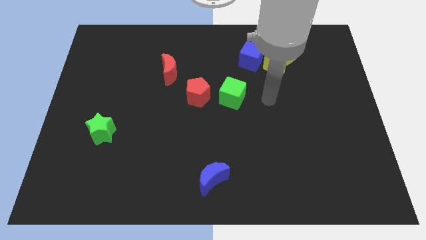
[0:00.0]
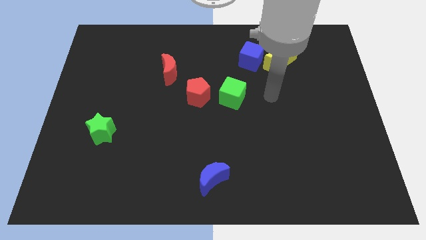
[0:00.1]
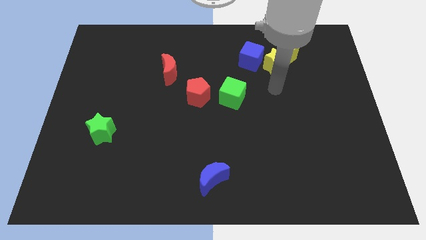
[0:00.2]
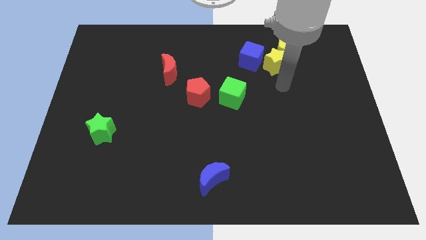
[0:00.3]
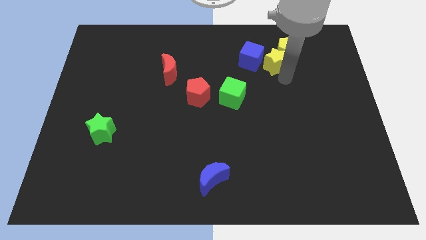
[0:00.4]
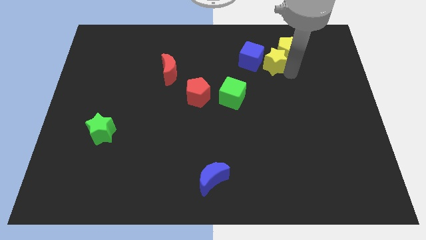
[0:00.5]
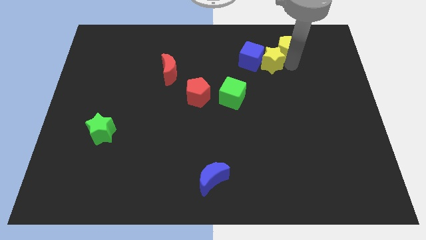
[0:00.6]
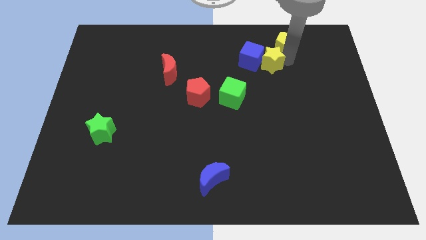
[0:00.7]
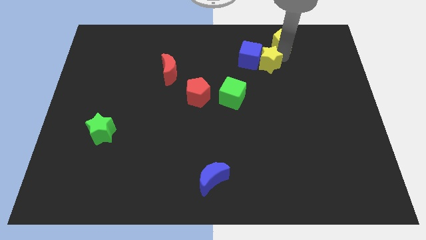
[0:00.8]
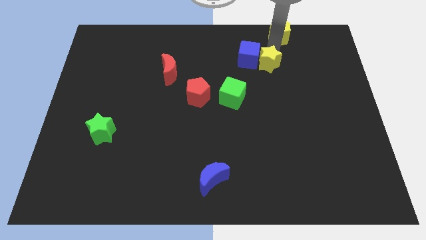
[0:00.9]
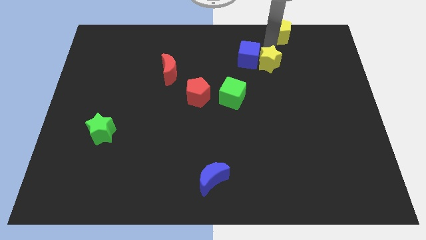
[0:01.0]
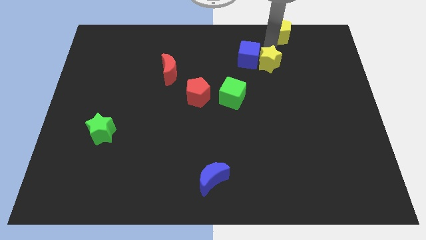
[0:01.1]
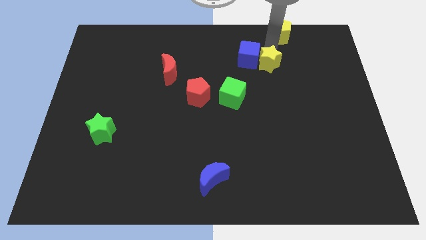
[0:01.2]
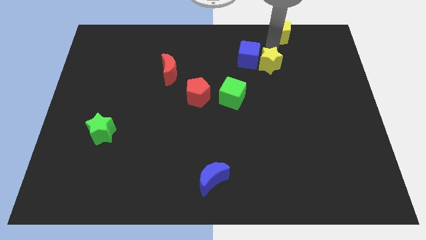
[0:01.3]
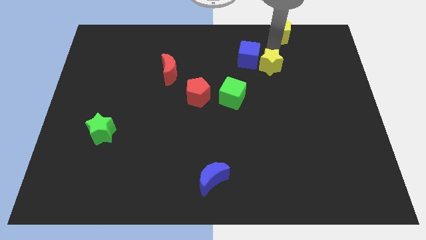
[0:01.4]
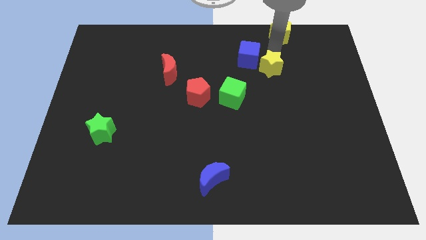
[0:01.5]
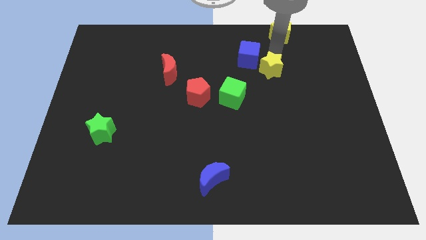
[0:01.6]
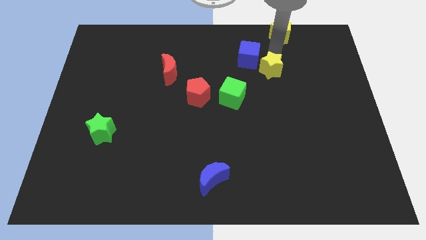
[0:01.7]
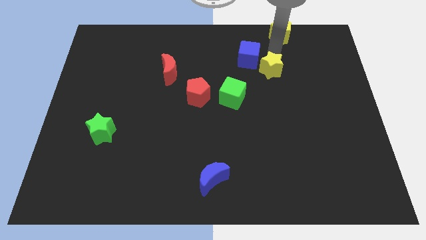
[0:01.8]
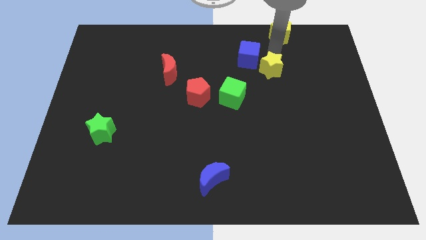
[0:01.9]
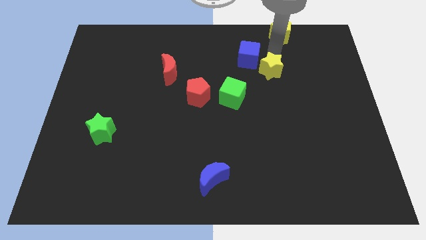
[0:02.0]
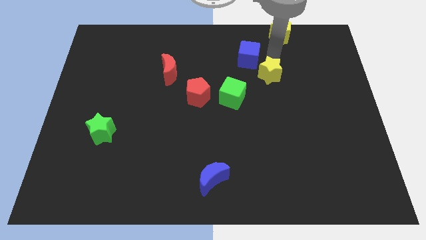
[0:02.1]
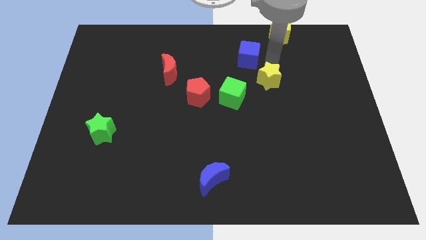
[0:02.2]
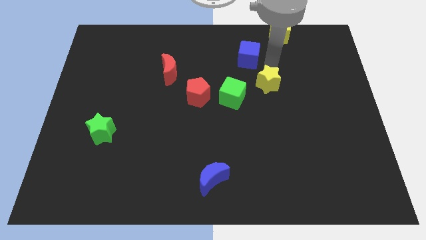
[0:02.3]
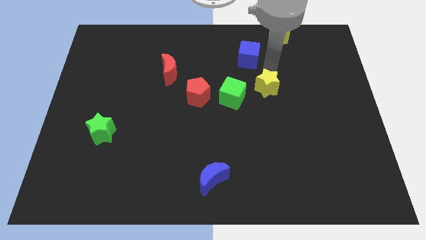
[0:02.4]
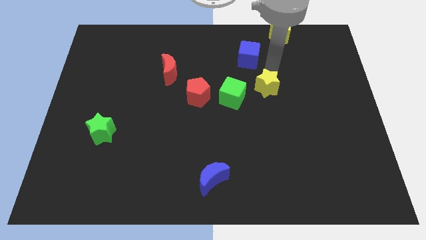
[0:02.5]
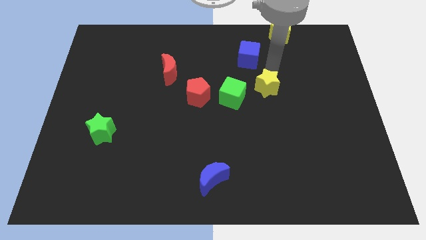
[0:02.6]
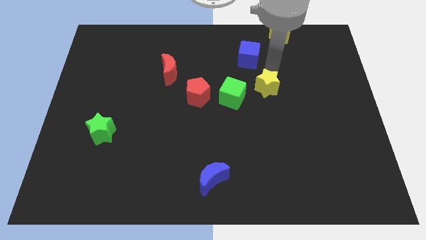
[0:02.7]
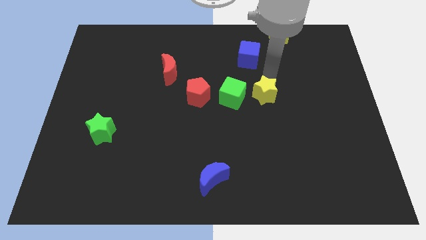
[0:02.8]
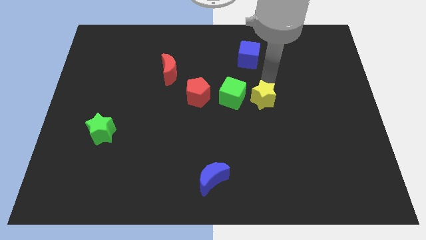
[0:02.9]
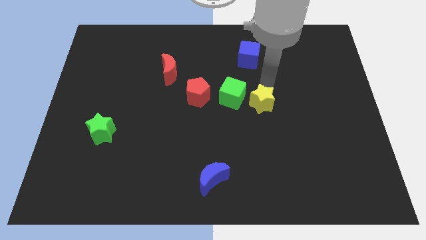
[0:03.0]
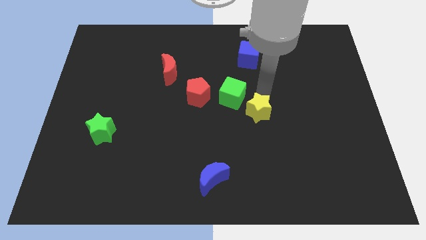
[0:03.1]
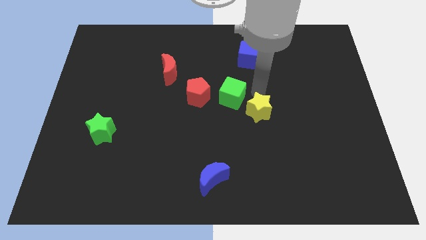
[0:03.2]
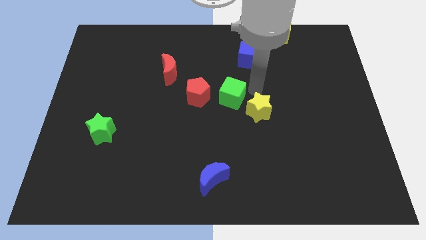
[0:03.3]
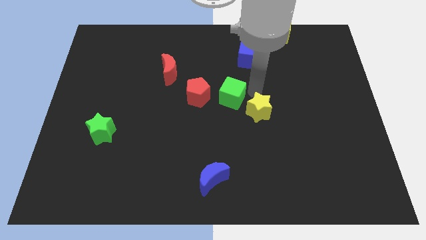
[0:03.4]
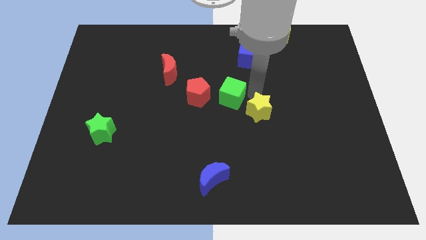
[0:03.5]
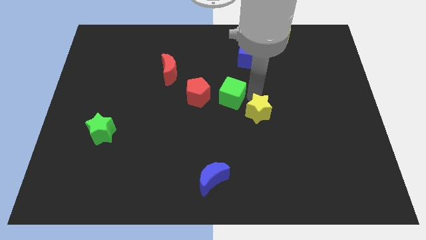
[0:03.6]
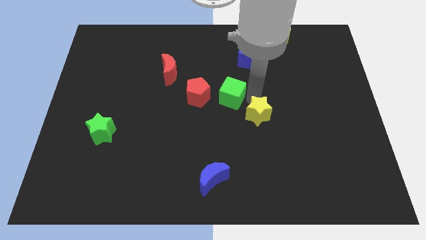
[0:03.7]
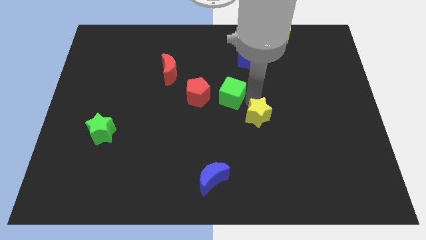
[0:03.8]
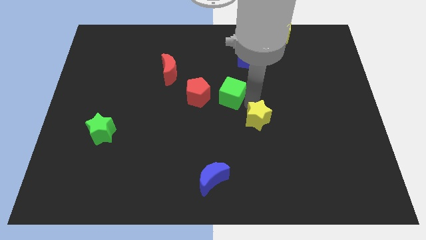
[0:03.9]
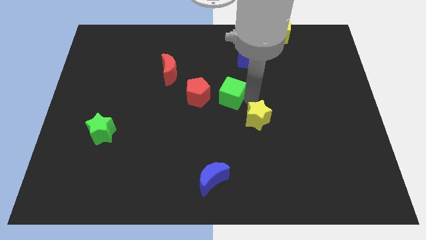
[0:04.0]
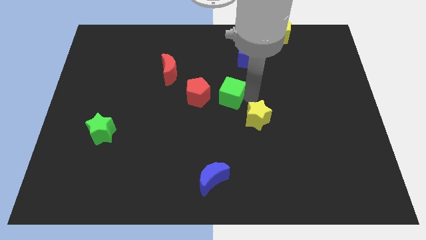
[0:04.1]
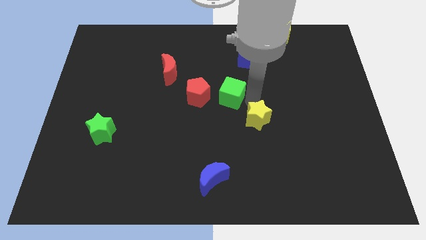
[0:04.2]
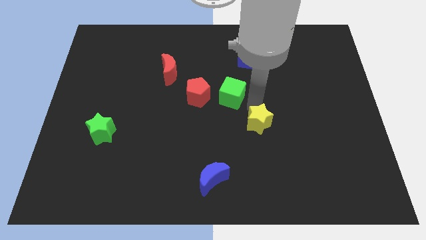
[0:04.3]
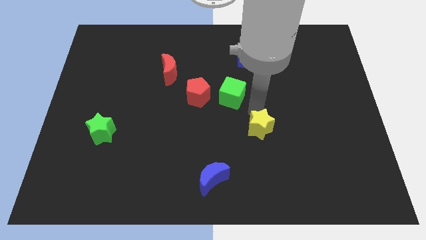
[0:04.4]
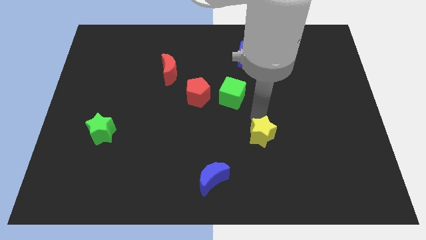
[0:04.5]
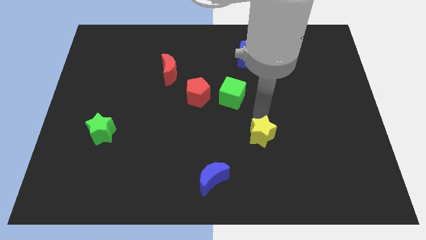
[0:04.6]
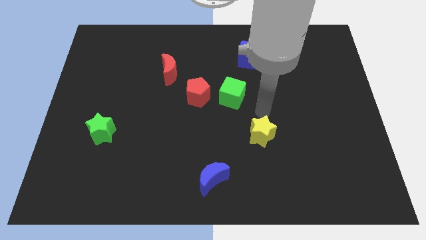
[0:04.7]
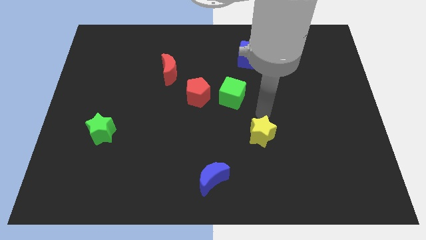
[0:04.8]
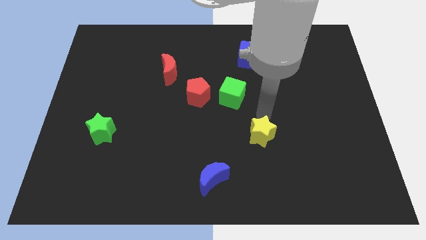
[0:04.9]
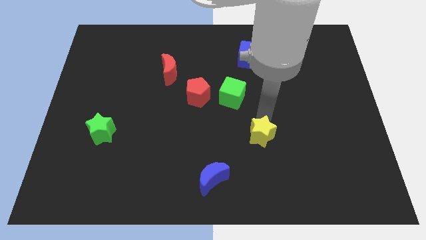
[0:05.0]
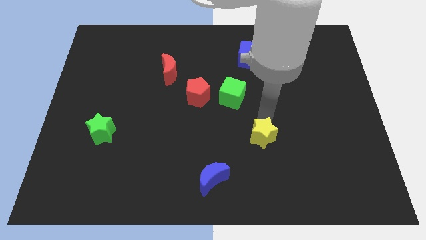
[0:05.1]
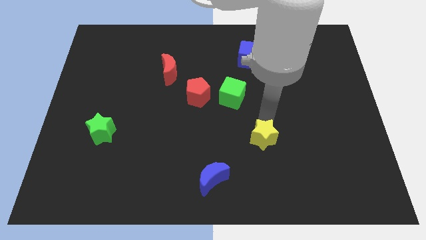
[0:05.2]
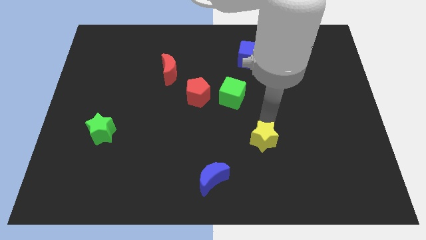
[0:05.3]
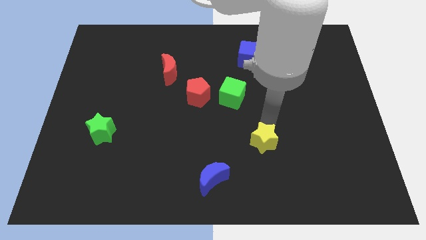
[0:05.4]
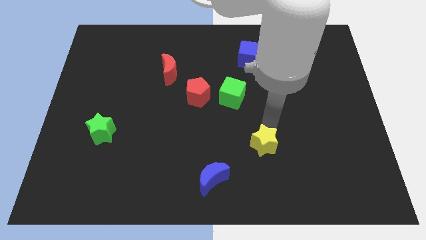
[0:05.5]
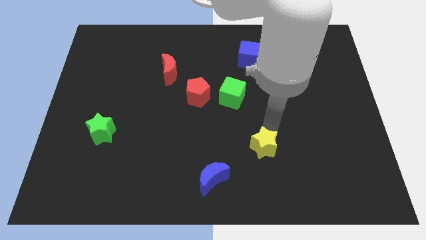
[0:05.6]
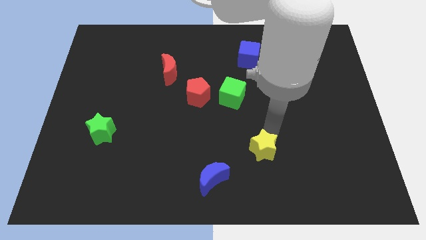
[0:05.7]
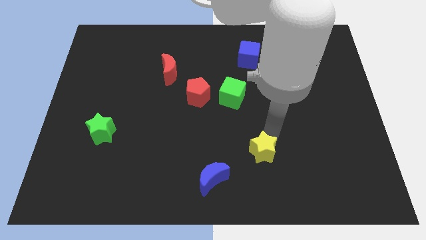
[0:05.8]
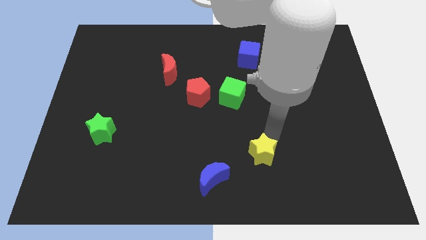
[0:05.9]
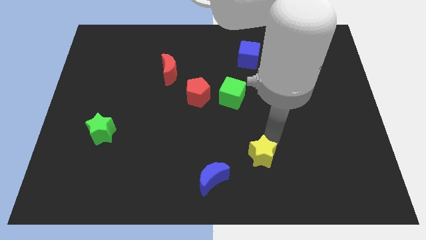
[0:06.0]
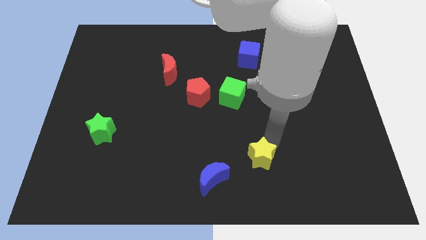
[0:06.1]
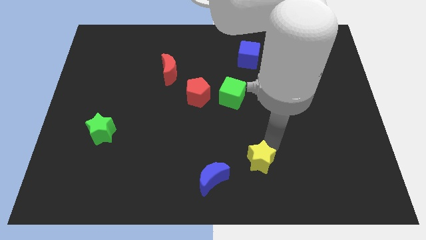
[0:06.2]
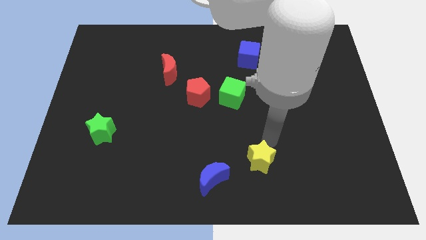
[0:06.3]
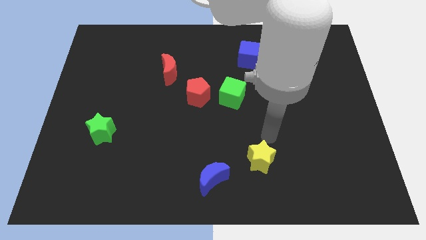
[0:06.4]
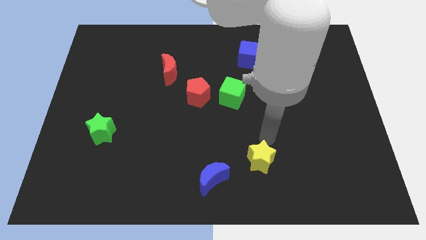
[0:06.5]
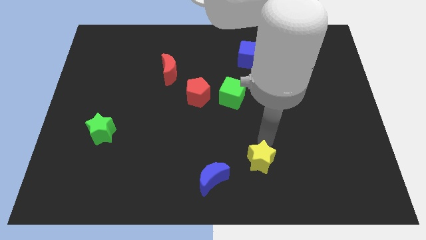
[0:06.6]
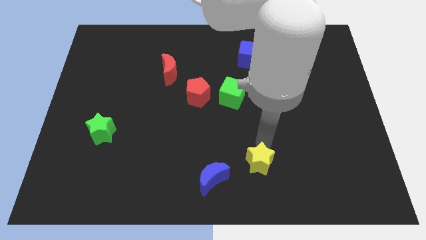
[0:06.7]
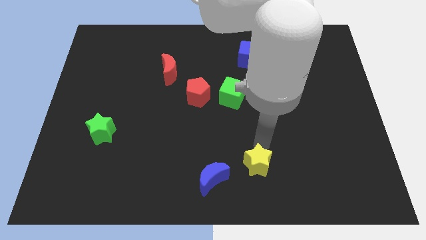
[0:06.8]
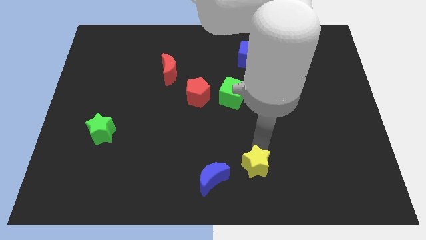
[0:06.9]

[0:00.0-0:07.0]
slide the yellow star to the bottom side
